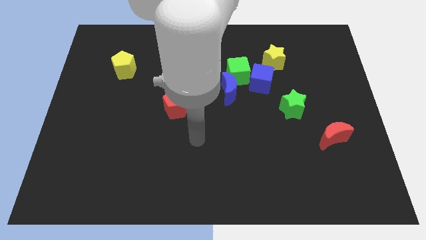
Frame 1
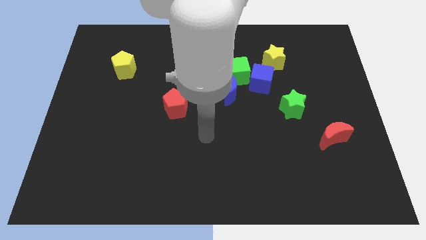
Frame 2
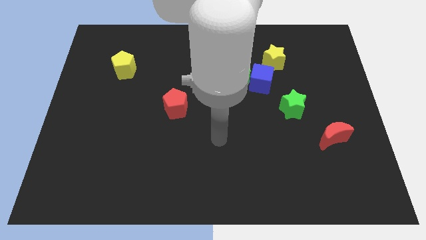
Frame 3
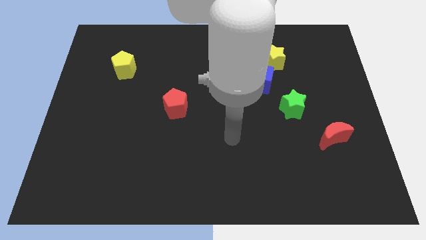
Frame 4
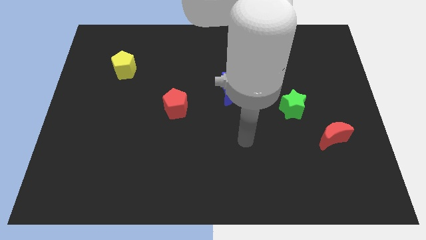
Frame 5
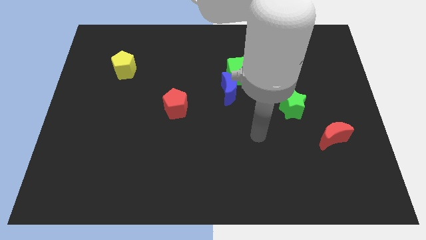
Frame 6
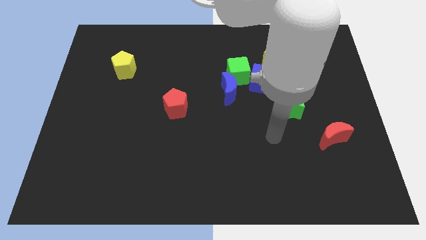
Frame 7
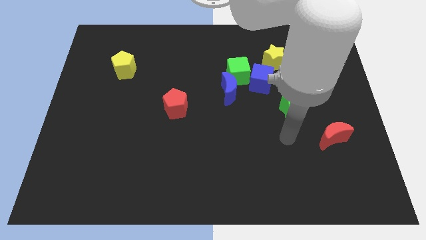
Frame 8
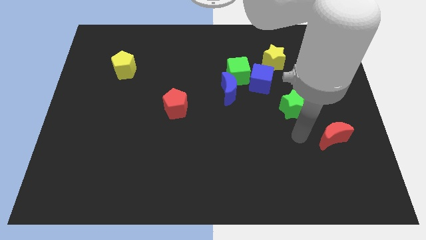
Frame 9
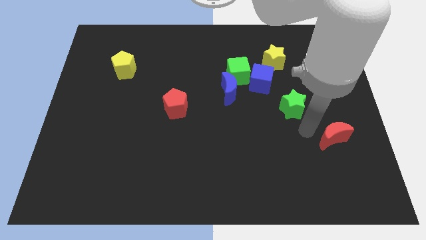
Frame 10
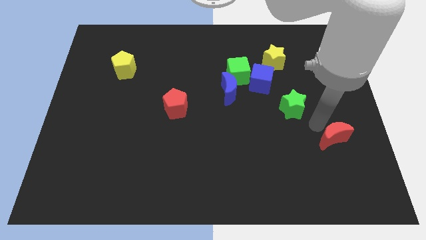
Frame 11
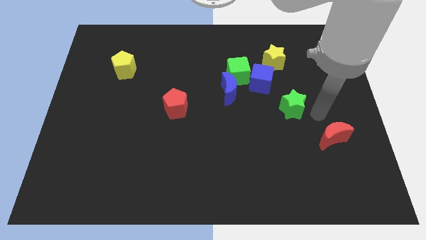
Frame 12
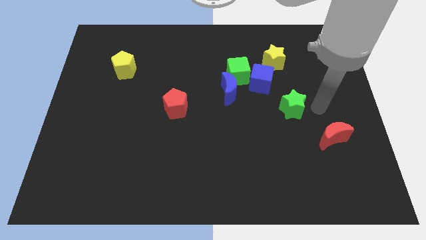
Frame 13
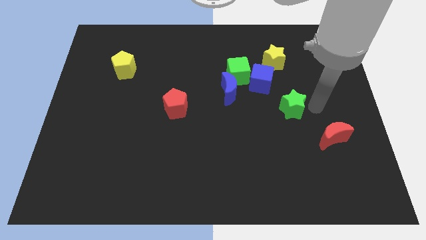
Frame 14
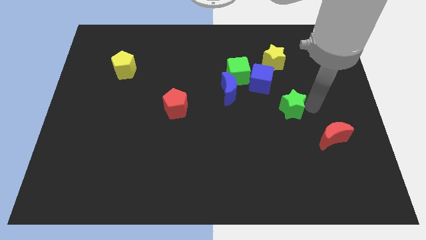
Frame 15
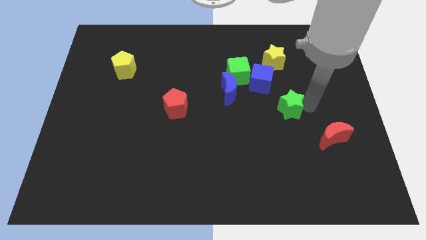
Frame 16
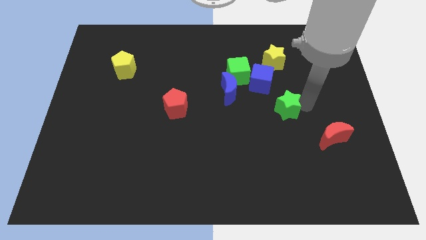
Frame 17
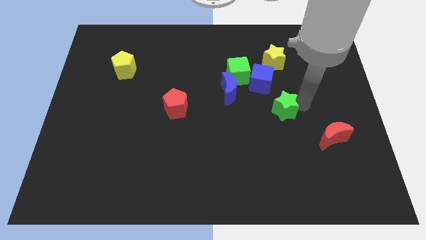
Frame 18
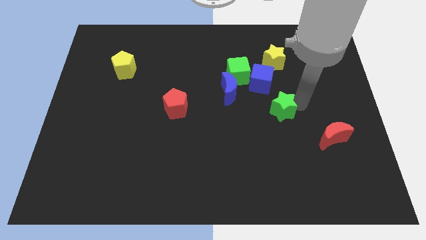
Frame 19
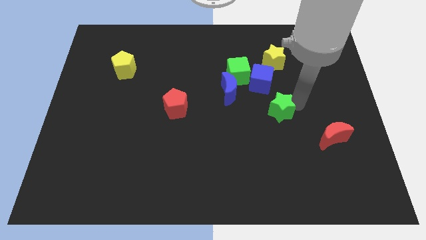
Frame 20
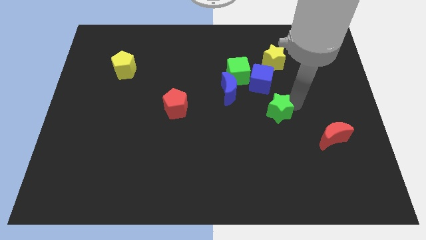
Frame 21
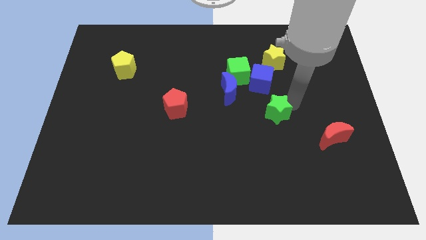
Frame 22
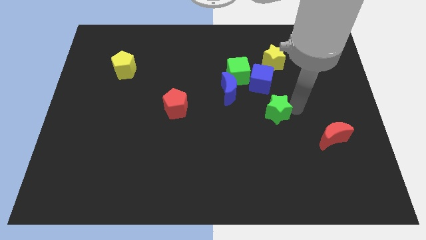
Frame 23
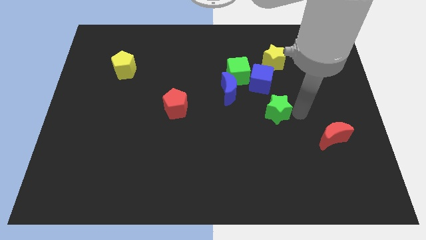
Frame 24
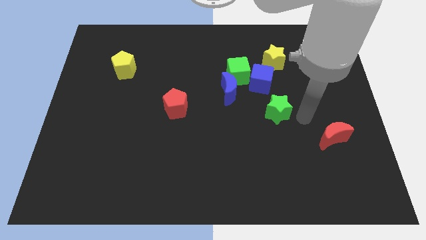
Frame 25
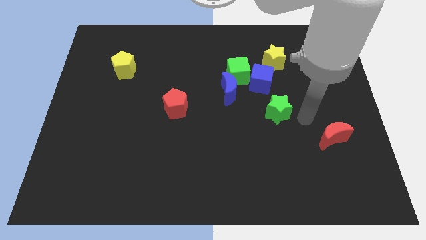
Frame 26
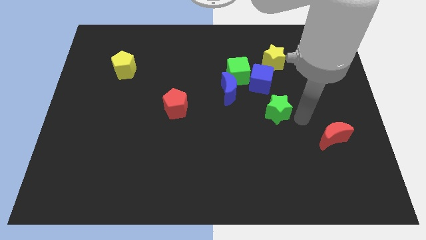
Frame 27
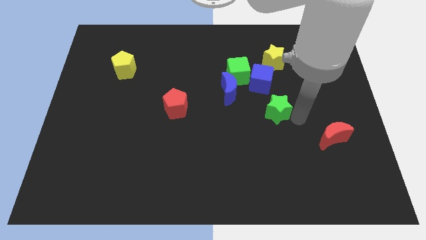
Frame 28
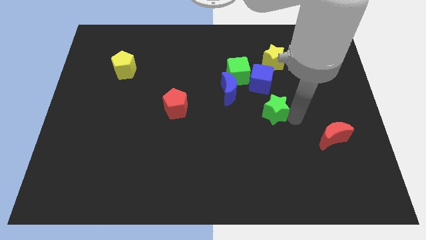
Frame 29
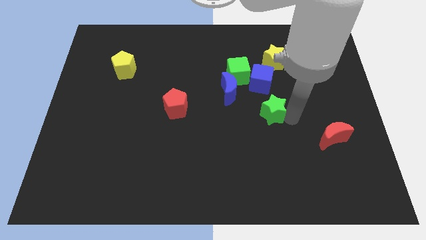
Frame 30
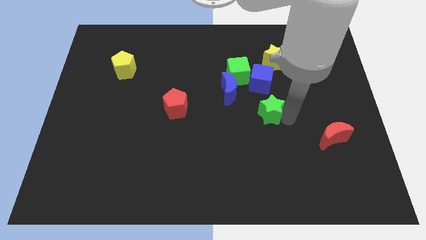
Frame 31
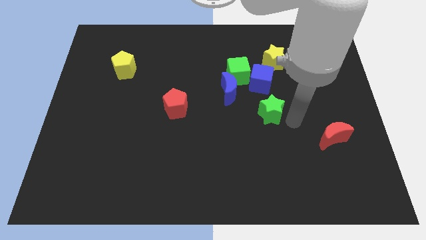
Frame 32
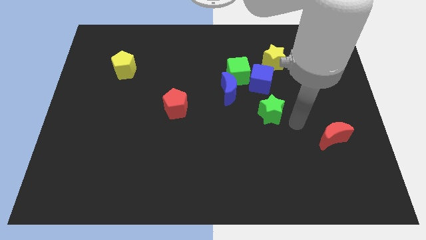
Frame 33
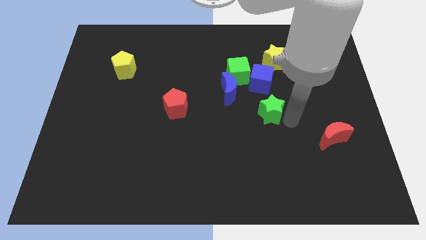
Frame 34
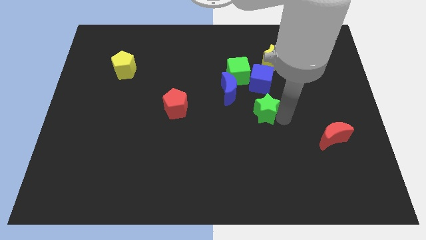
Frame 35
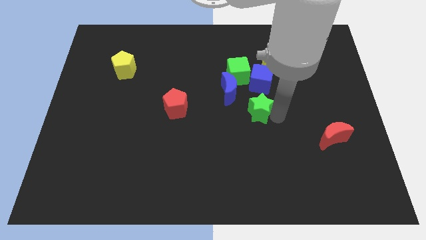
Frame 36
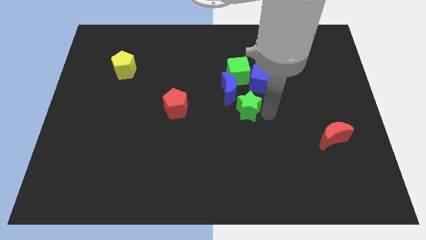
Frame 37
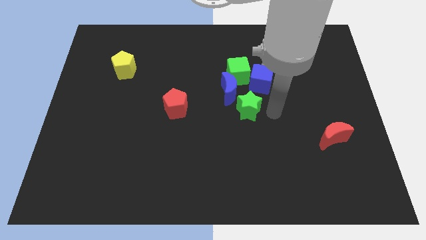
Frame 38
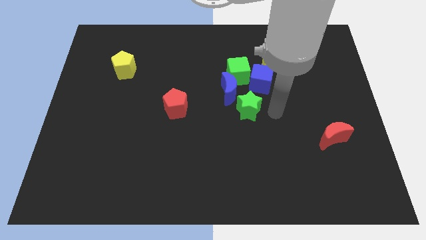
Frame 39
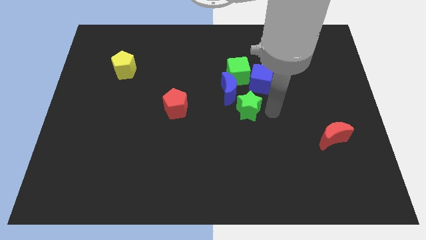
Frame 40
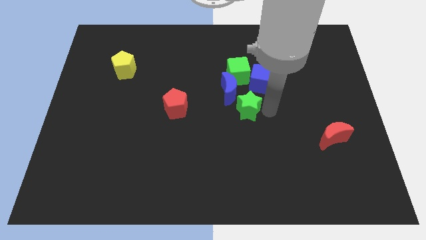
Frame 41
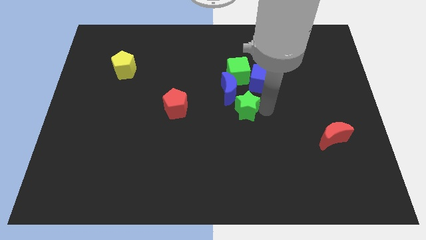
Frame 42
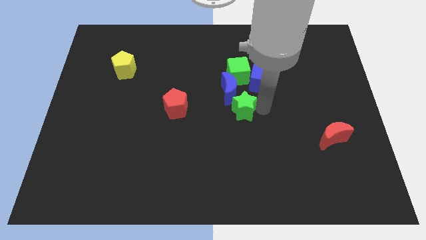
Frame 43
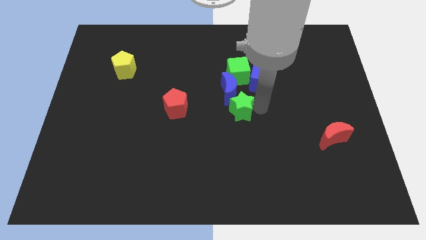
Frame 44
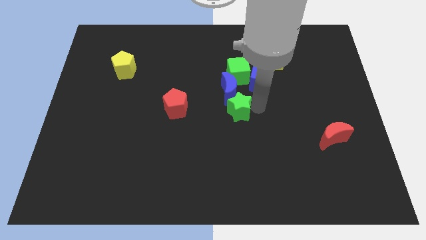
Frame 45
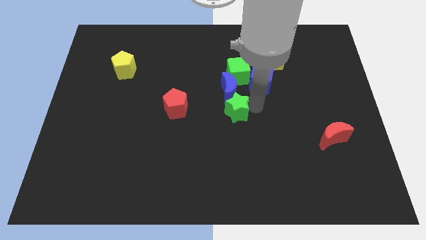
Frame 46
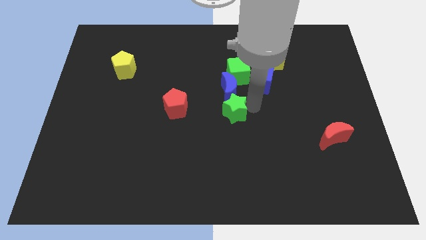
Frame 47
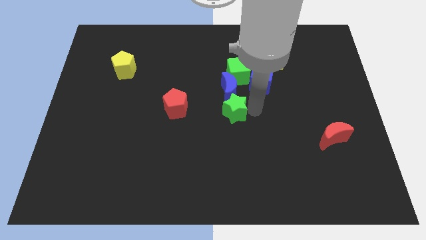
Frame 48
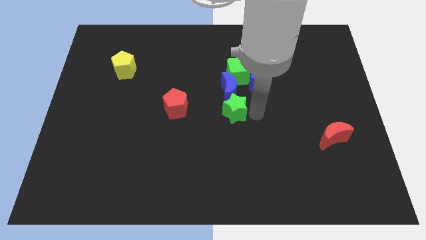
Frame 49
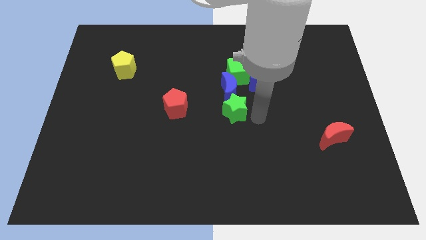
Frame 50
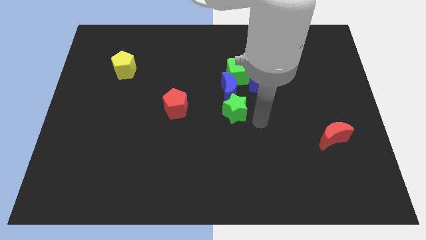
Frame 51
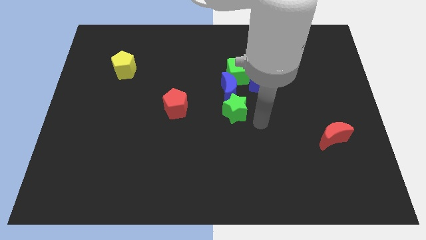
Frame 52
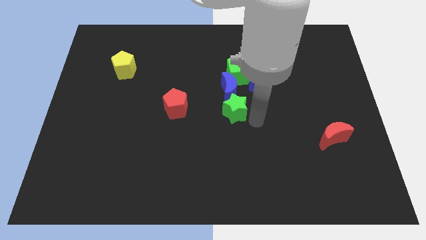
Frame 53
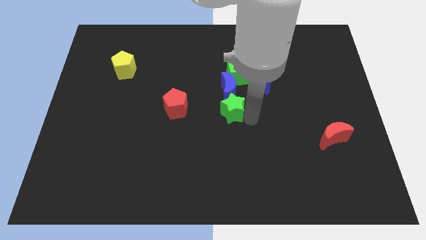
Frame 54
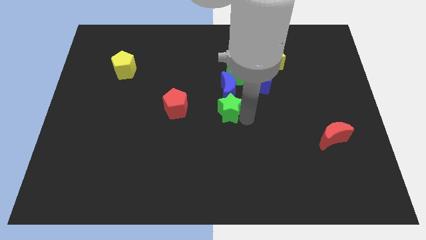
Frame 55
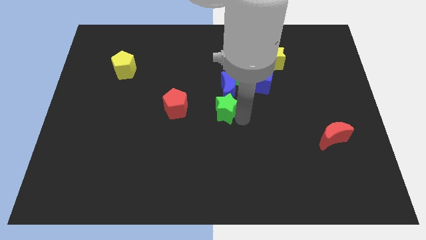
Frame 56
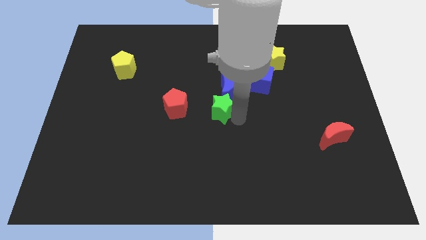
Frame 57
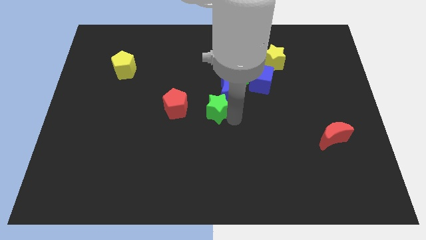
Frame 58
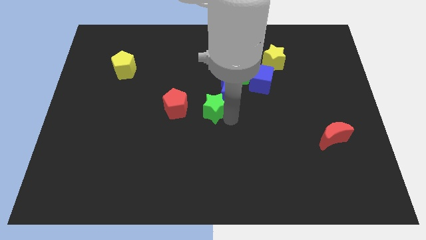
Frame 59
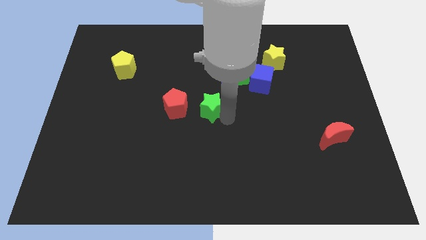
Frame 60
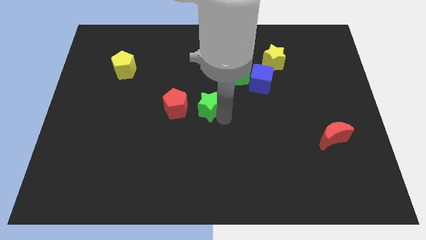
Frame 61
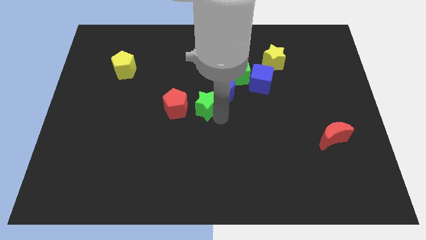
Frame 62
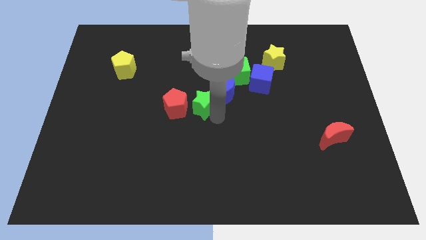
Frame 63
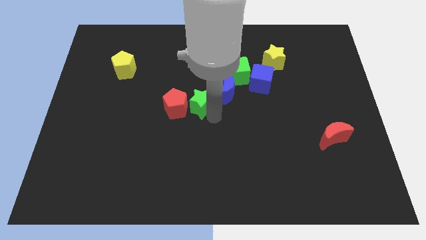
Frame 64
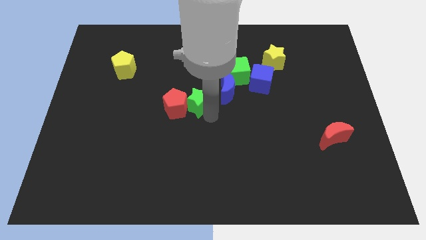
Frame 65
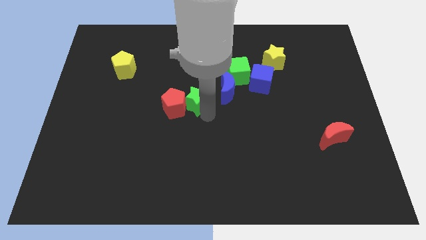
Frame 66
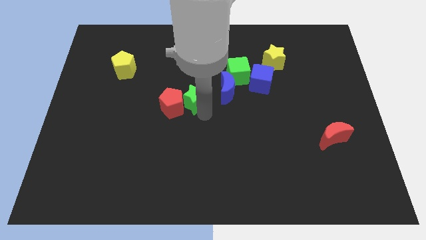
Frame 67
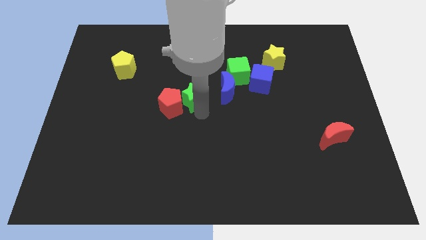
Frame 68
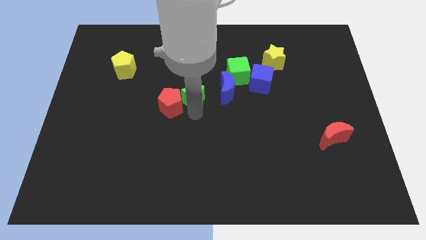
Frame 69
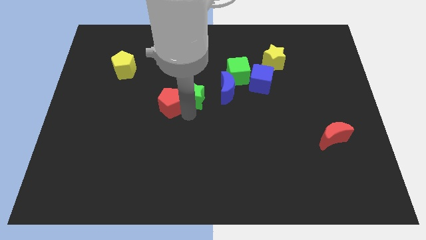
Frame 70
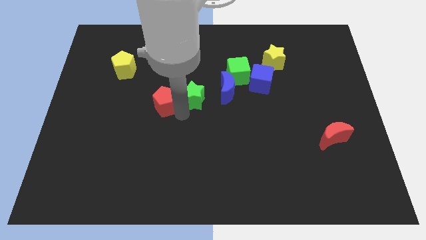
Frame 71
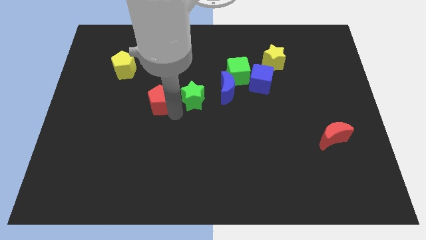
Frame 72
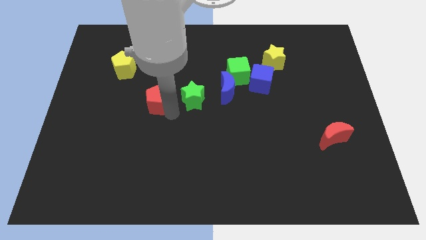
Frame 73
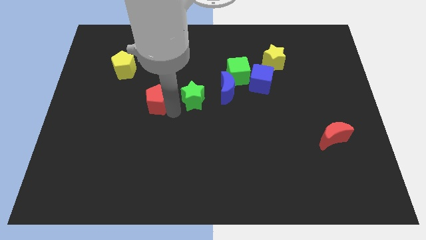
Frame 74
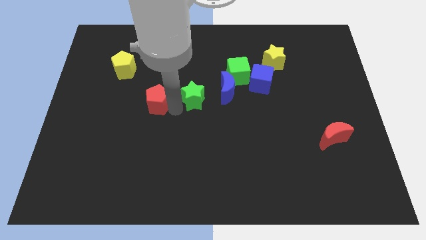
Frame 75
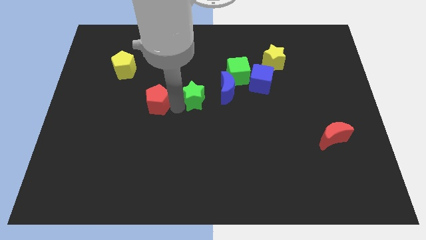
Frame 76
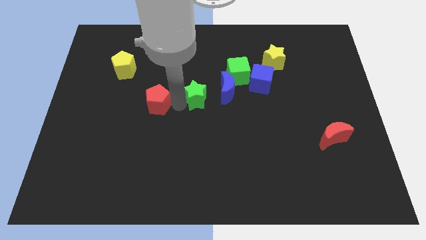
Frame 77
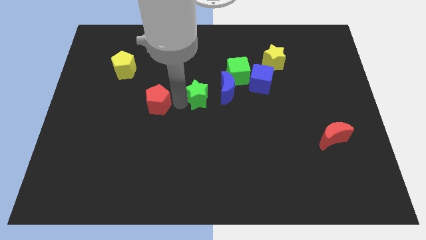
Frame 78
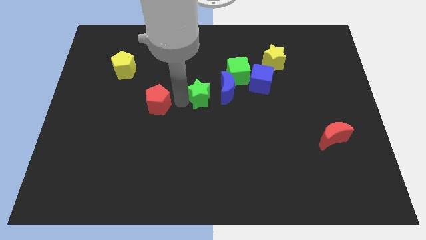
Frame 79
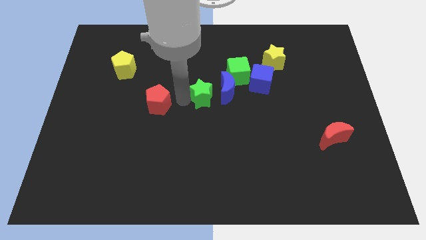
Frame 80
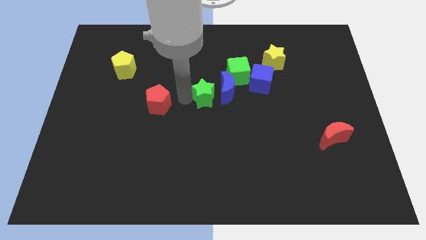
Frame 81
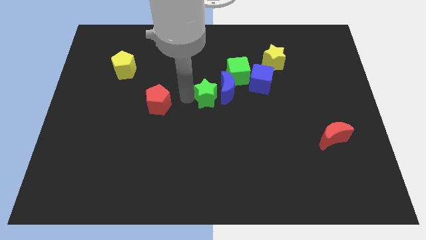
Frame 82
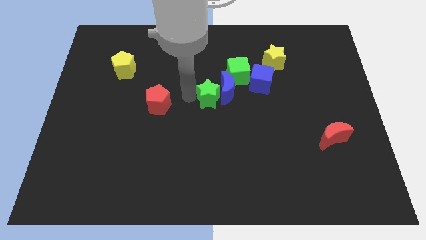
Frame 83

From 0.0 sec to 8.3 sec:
move the green star to the top left of the blue moon
